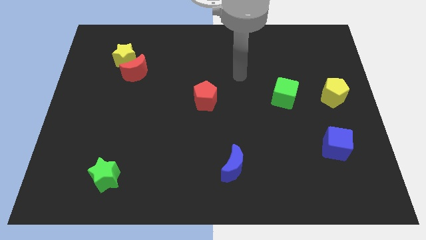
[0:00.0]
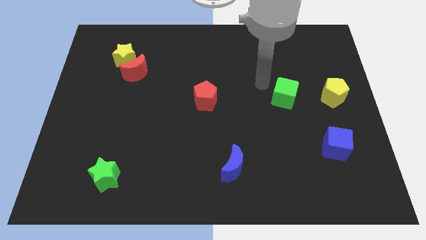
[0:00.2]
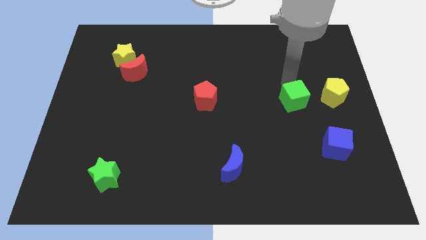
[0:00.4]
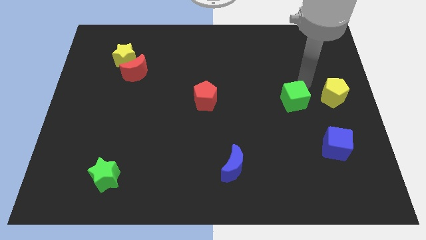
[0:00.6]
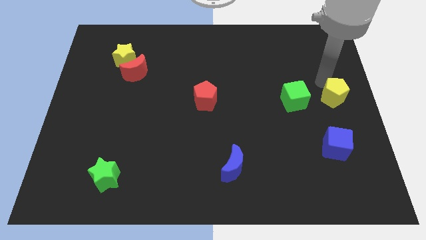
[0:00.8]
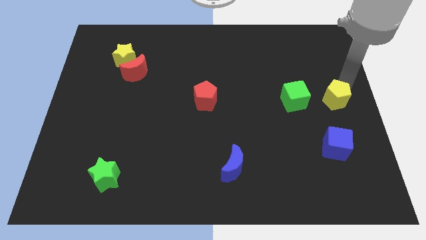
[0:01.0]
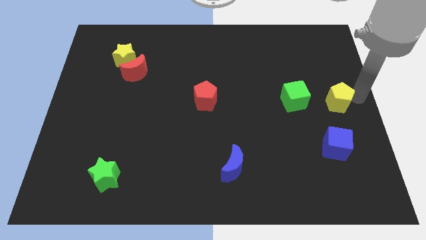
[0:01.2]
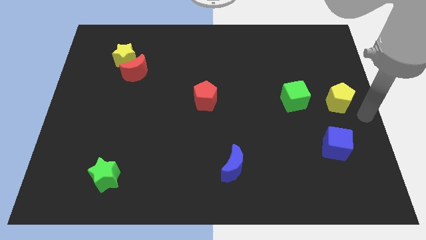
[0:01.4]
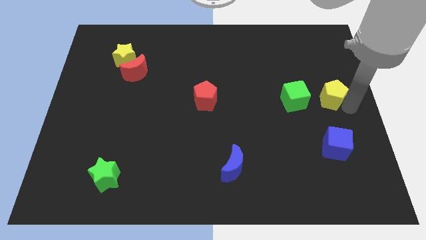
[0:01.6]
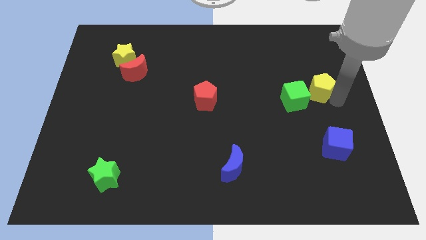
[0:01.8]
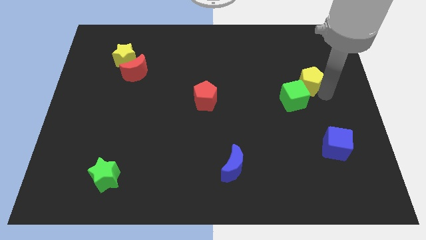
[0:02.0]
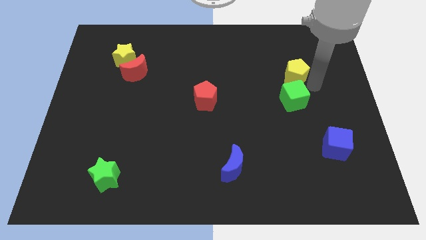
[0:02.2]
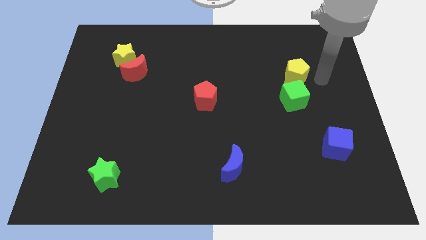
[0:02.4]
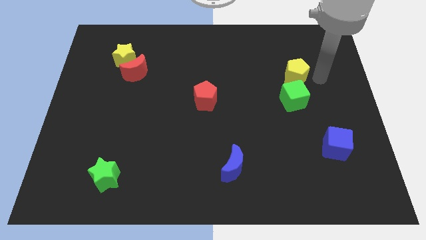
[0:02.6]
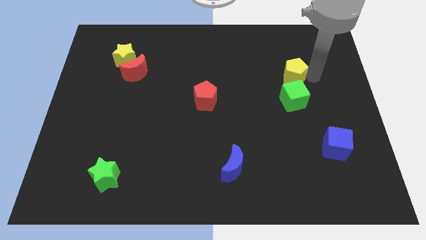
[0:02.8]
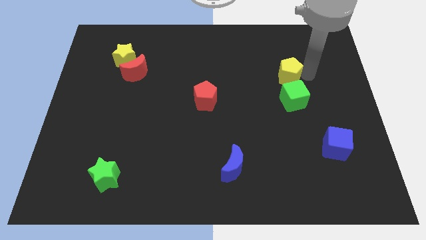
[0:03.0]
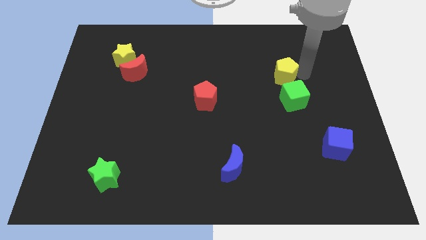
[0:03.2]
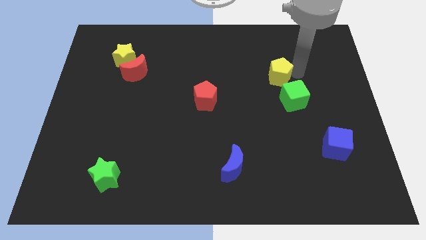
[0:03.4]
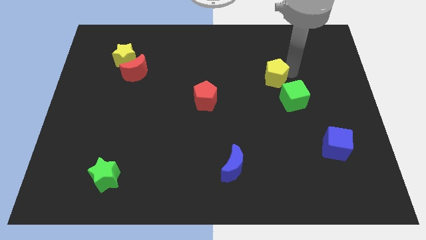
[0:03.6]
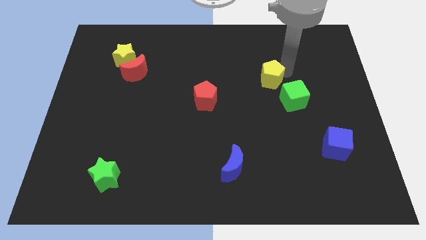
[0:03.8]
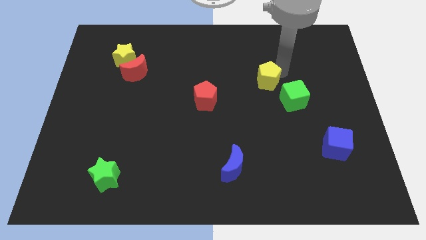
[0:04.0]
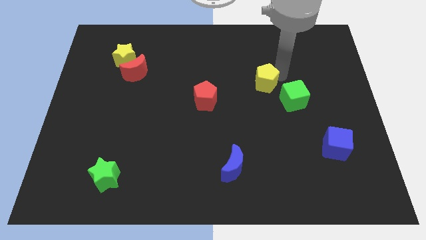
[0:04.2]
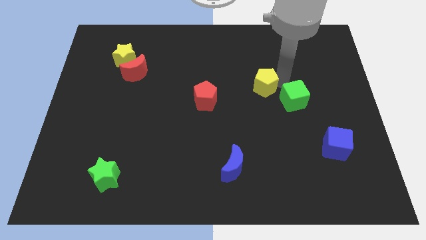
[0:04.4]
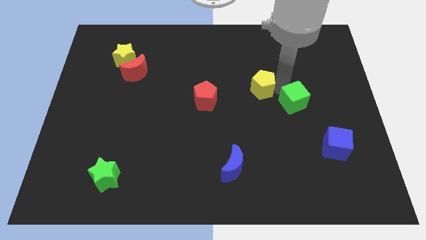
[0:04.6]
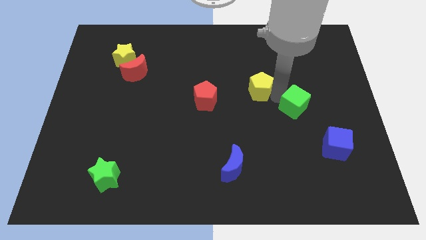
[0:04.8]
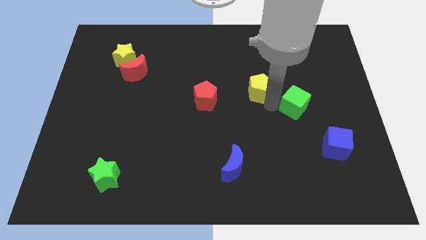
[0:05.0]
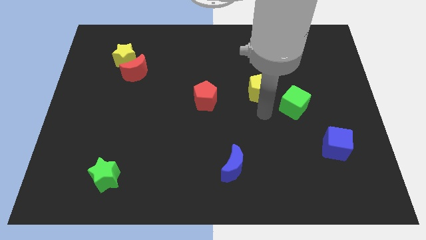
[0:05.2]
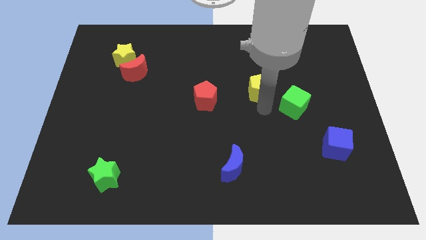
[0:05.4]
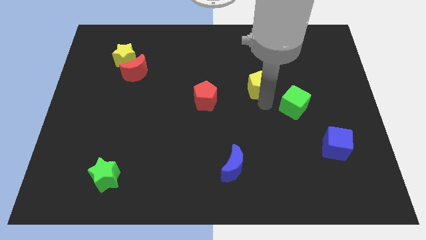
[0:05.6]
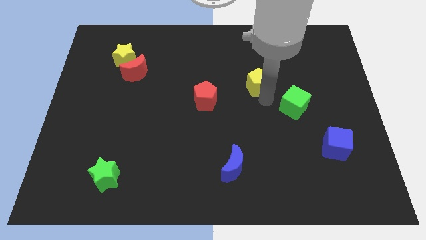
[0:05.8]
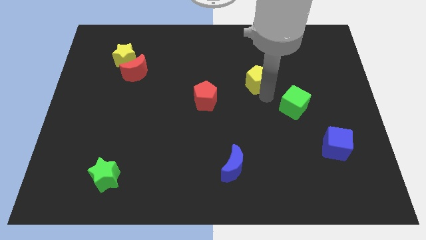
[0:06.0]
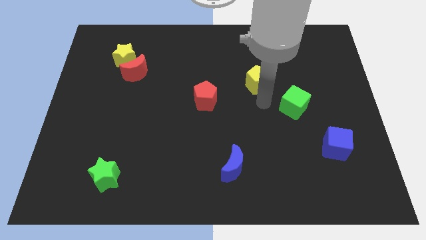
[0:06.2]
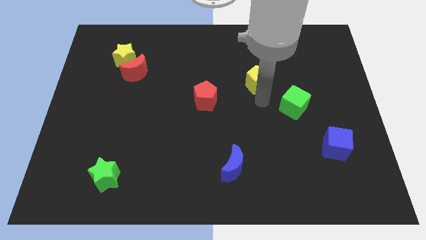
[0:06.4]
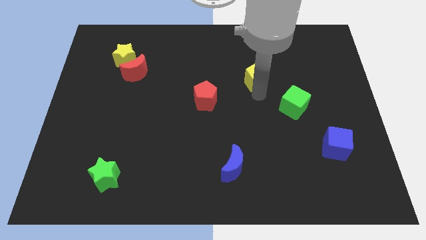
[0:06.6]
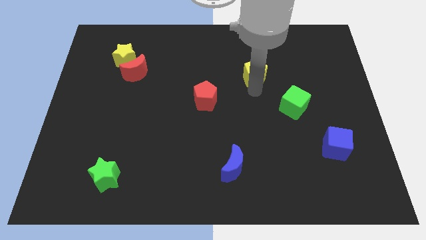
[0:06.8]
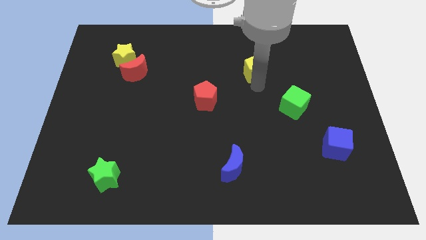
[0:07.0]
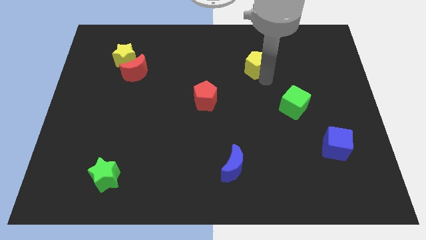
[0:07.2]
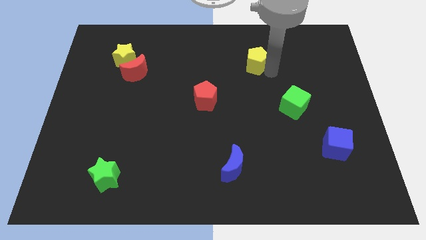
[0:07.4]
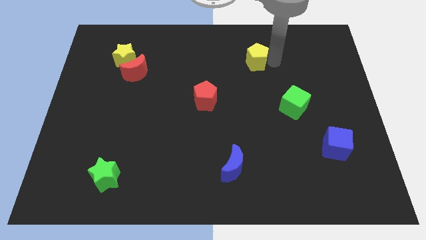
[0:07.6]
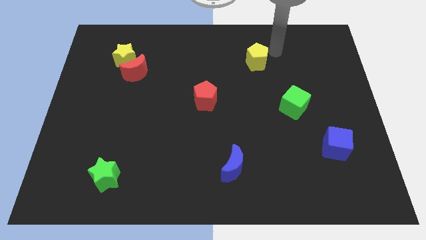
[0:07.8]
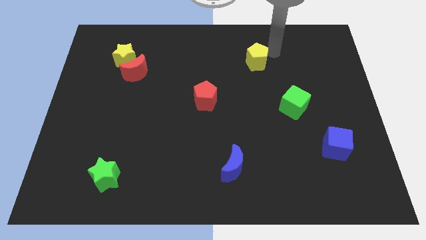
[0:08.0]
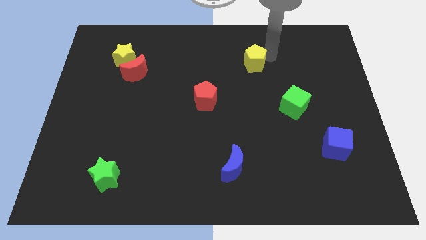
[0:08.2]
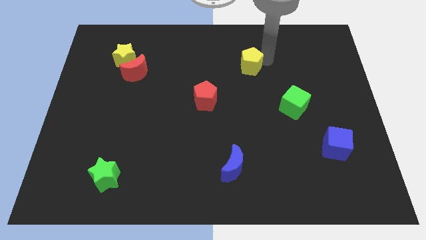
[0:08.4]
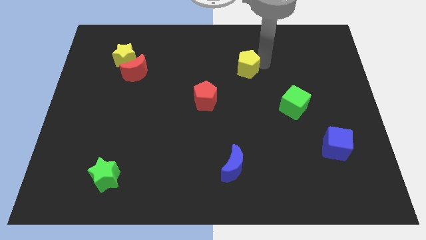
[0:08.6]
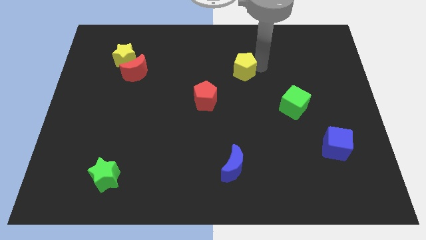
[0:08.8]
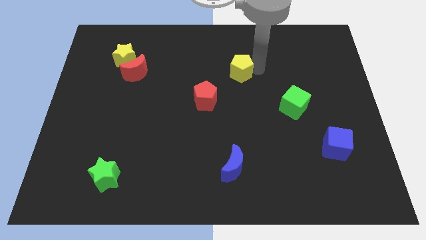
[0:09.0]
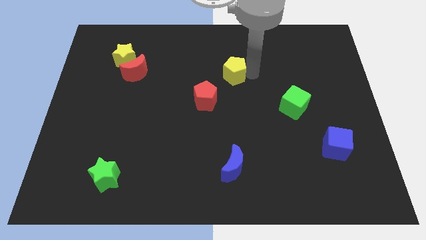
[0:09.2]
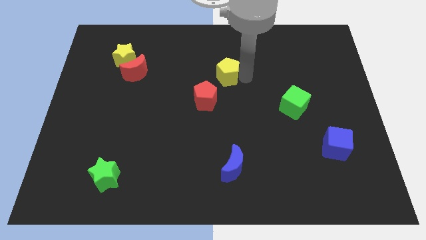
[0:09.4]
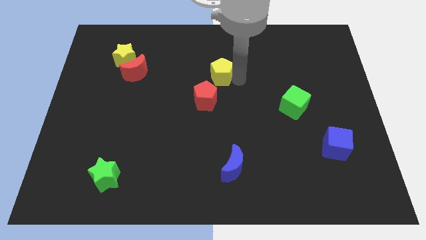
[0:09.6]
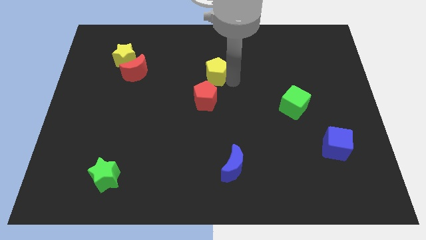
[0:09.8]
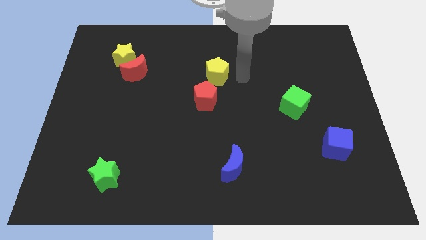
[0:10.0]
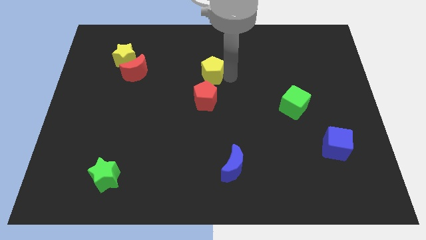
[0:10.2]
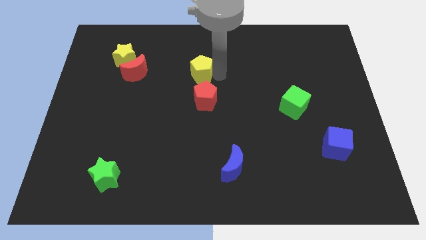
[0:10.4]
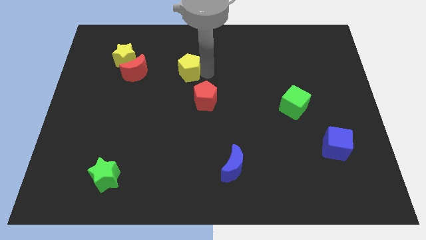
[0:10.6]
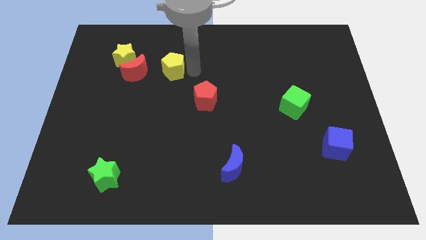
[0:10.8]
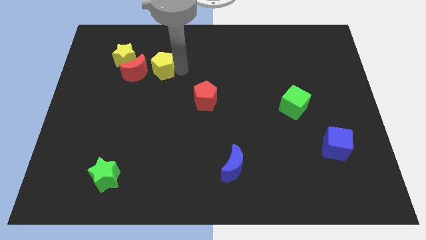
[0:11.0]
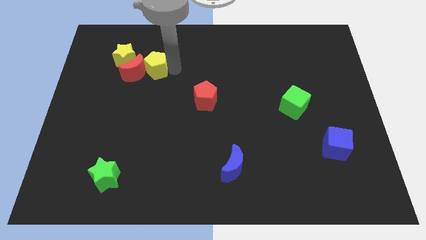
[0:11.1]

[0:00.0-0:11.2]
push the yellow pentagon close to the red moon
